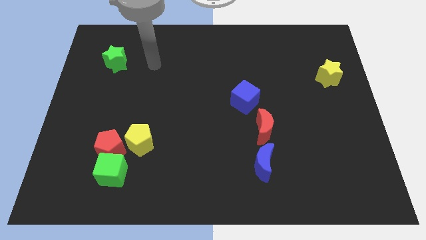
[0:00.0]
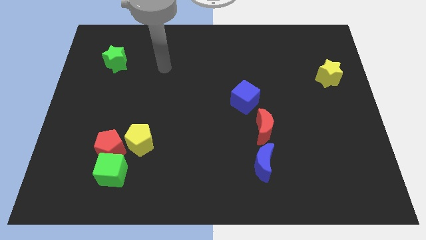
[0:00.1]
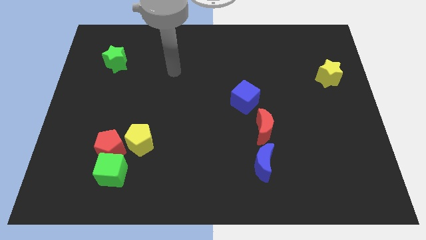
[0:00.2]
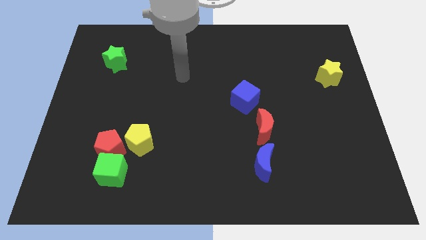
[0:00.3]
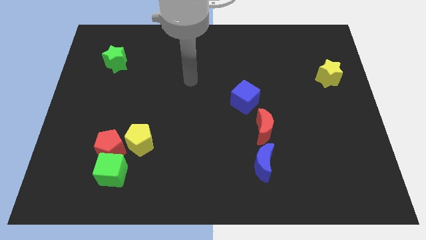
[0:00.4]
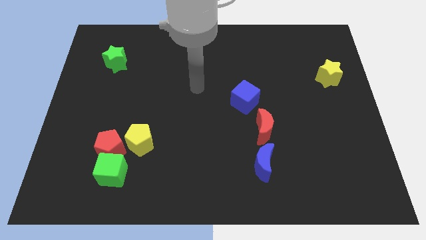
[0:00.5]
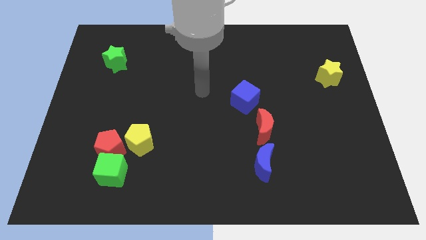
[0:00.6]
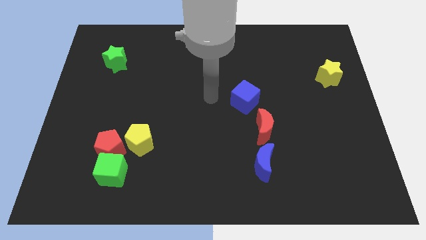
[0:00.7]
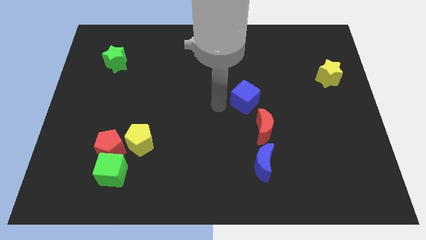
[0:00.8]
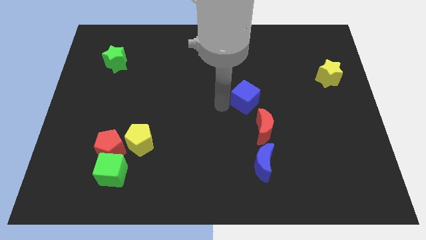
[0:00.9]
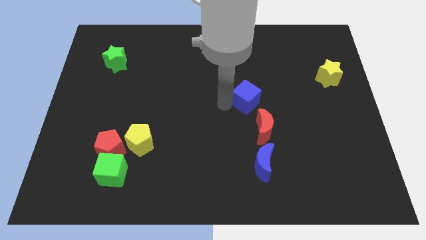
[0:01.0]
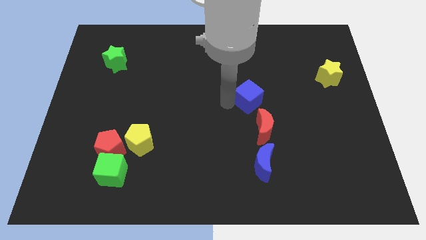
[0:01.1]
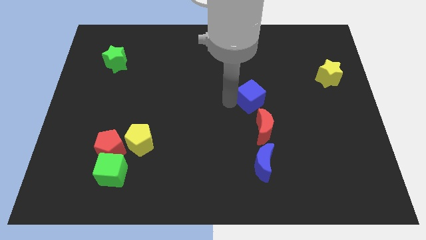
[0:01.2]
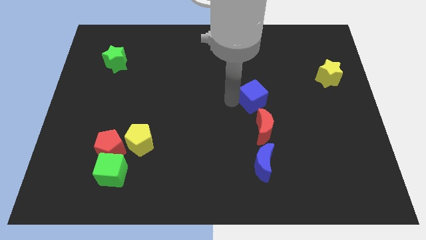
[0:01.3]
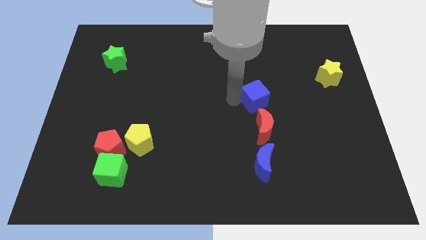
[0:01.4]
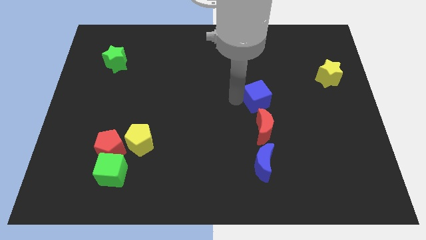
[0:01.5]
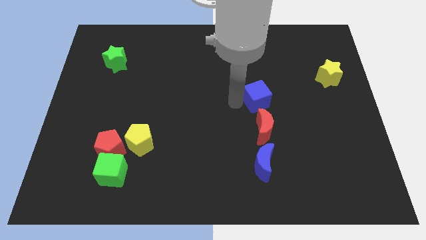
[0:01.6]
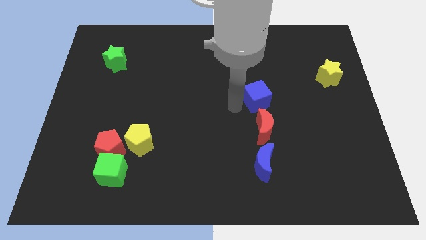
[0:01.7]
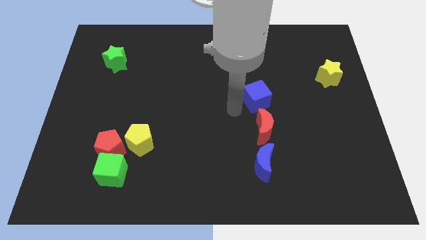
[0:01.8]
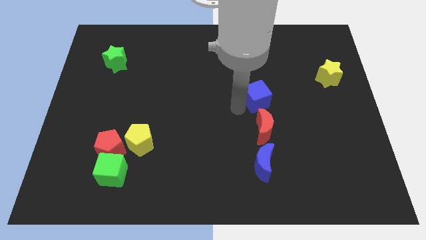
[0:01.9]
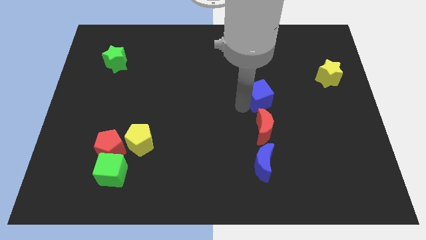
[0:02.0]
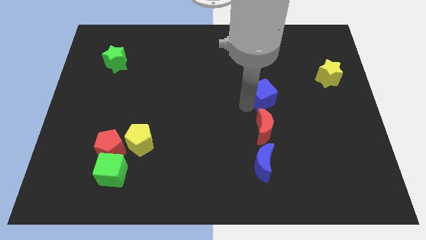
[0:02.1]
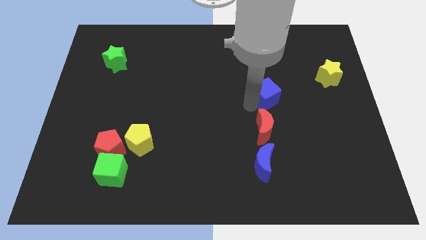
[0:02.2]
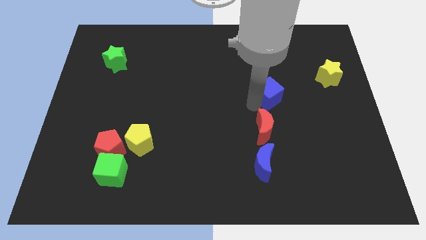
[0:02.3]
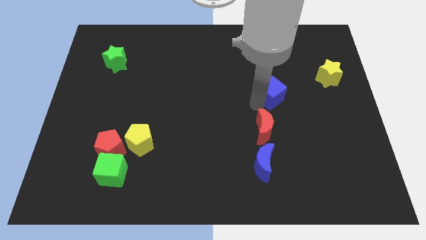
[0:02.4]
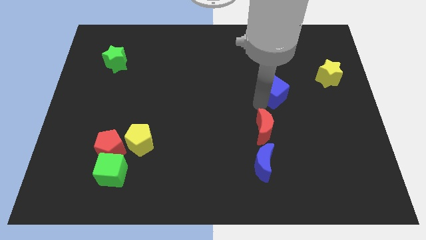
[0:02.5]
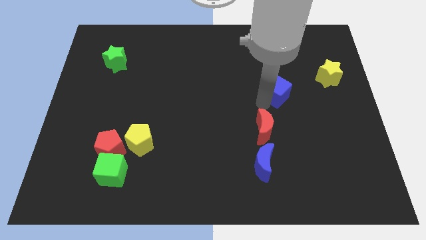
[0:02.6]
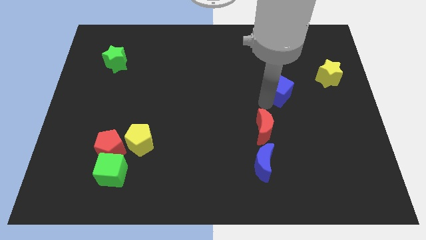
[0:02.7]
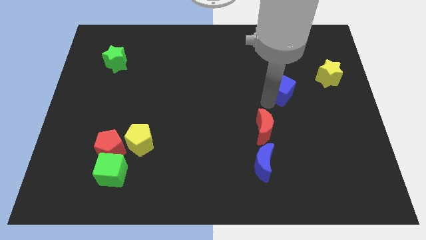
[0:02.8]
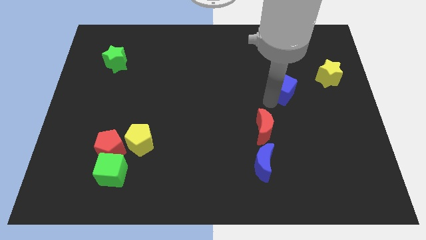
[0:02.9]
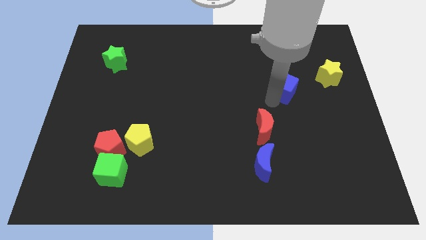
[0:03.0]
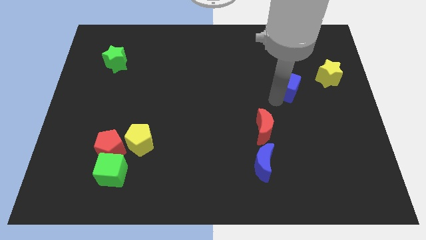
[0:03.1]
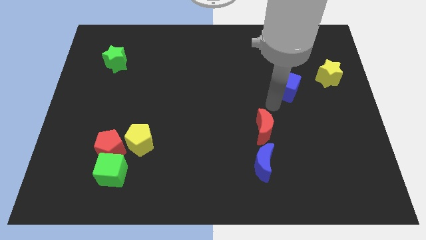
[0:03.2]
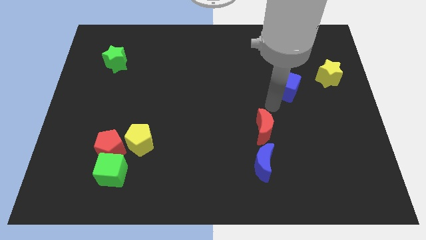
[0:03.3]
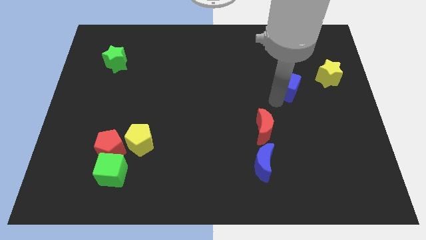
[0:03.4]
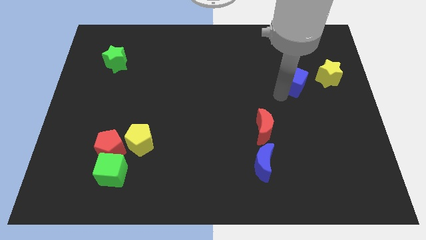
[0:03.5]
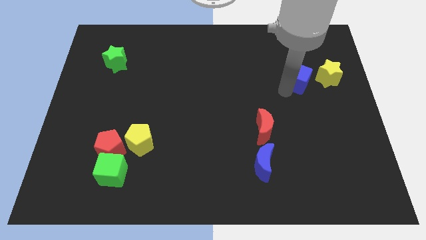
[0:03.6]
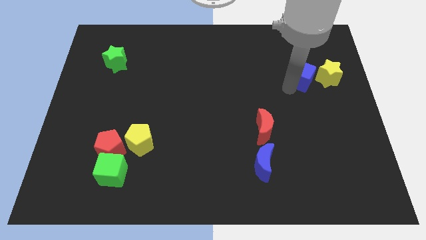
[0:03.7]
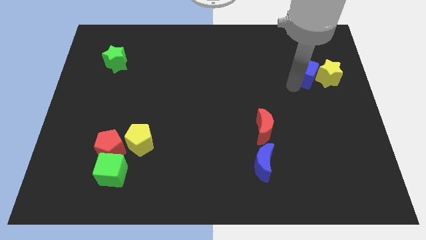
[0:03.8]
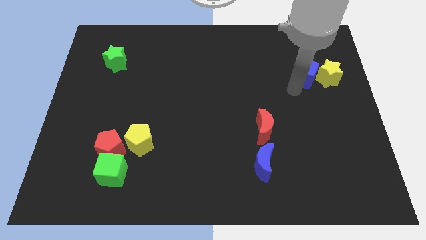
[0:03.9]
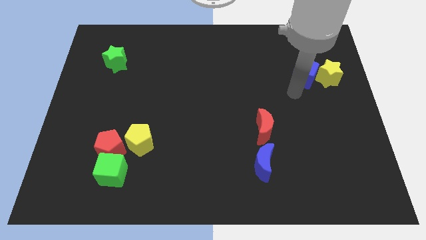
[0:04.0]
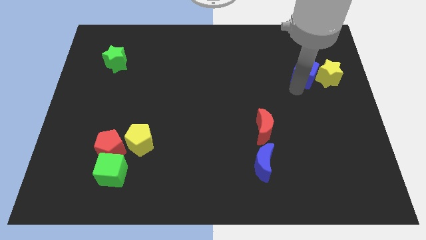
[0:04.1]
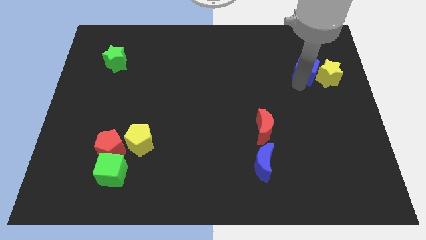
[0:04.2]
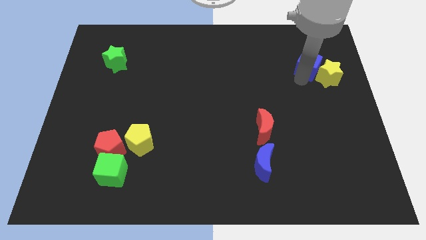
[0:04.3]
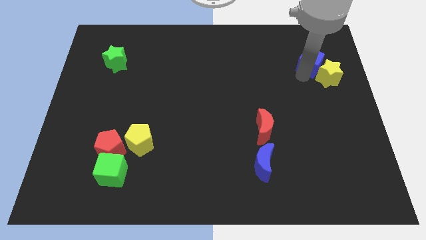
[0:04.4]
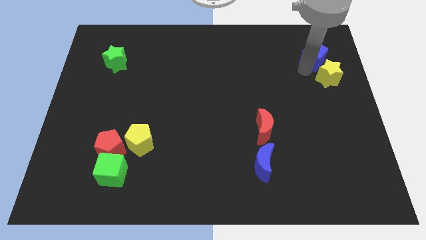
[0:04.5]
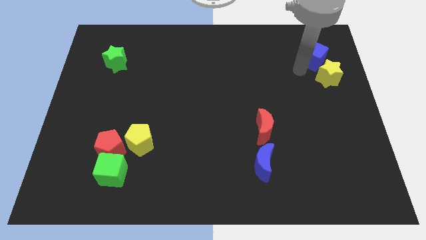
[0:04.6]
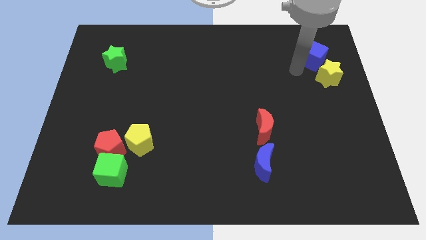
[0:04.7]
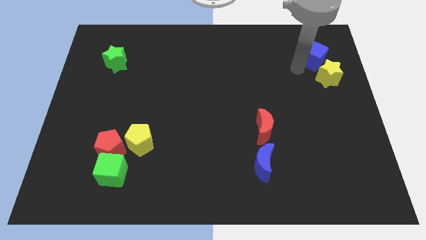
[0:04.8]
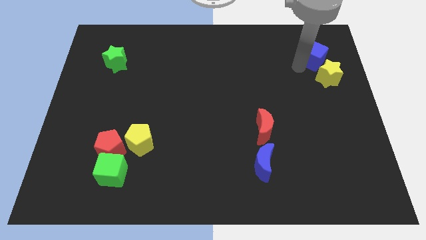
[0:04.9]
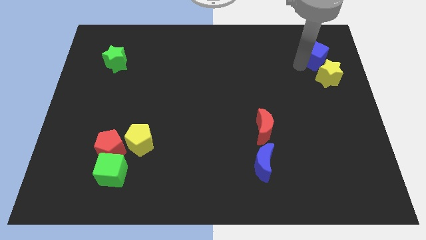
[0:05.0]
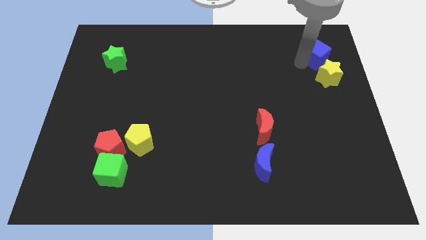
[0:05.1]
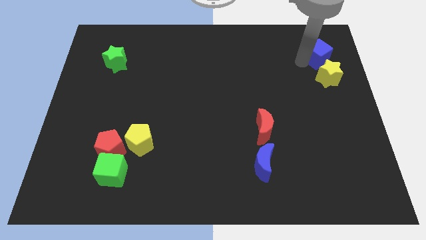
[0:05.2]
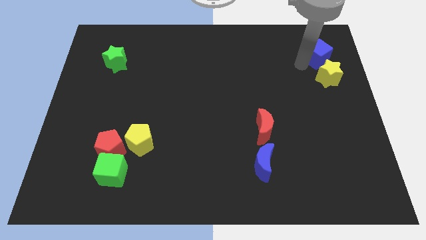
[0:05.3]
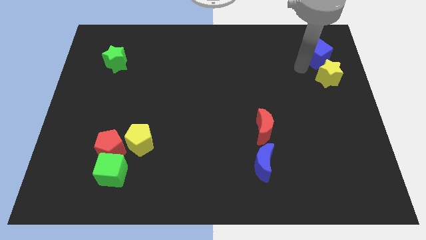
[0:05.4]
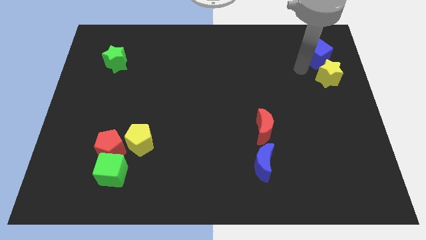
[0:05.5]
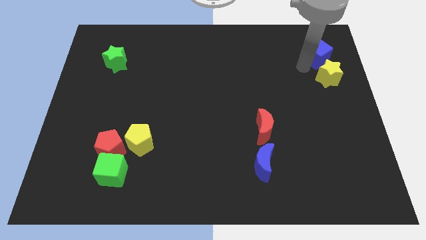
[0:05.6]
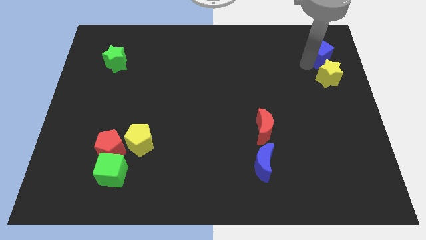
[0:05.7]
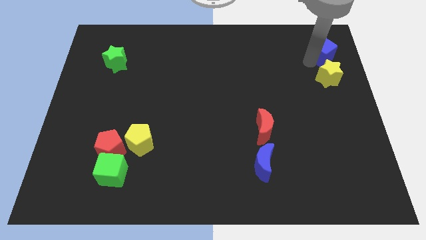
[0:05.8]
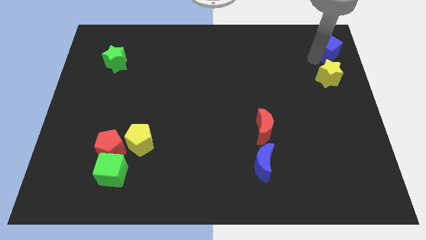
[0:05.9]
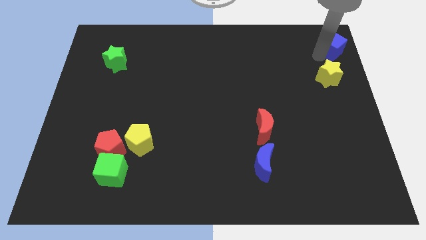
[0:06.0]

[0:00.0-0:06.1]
push the blue cube to the top right of the board

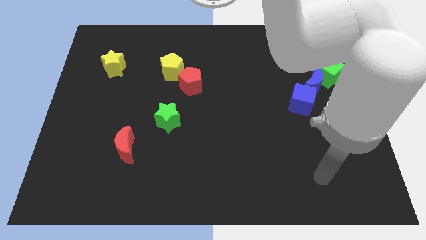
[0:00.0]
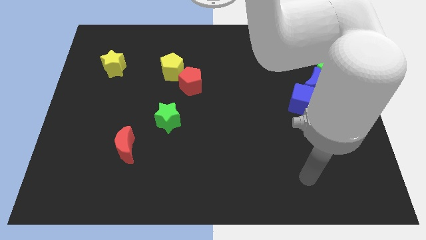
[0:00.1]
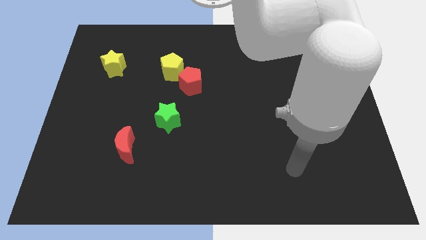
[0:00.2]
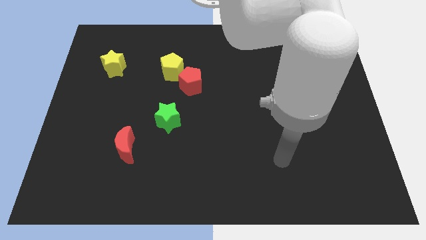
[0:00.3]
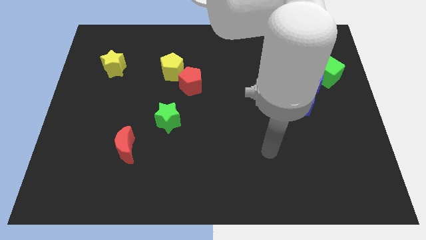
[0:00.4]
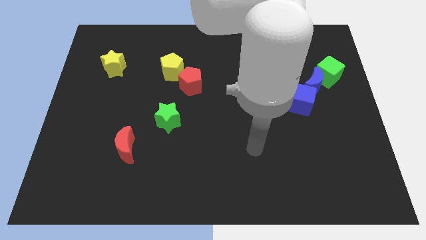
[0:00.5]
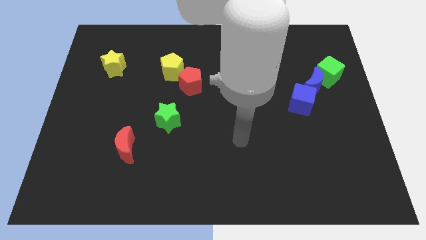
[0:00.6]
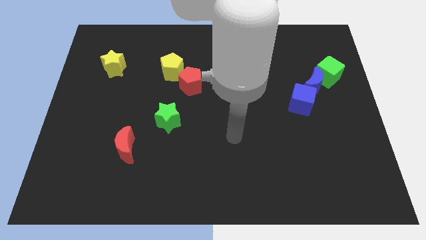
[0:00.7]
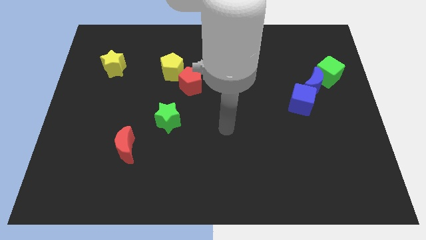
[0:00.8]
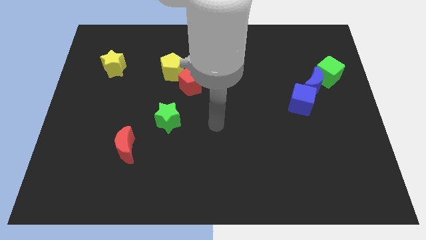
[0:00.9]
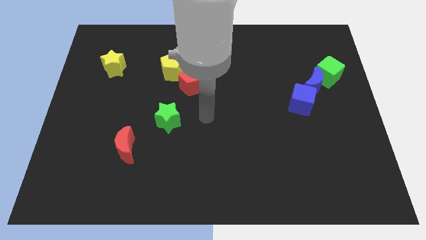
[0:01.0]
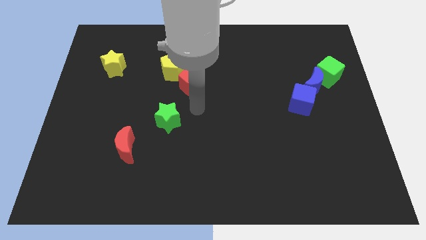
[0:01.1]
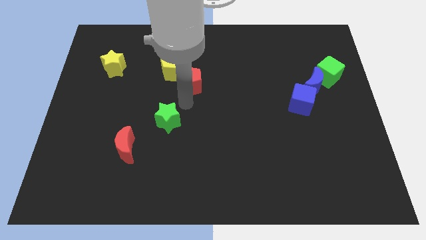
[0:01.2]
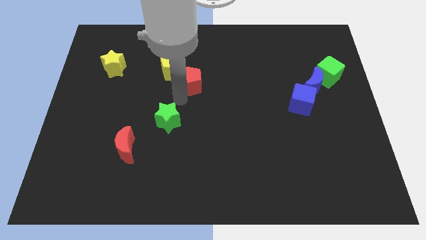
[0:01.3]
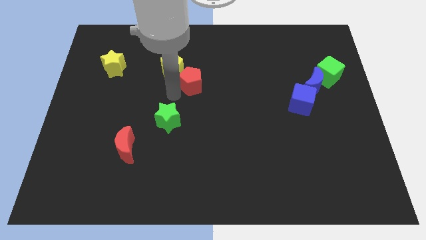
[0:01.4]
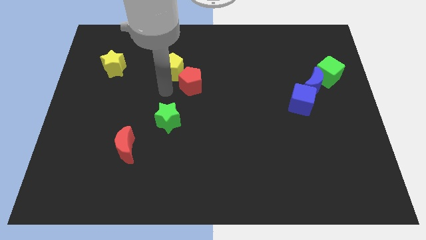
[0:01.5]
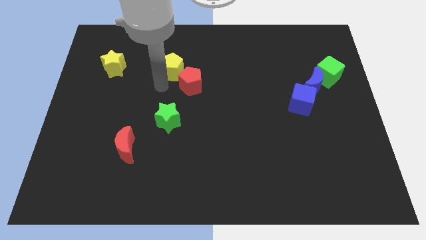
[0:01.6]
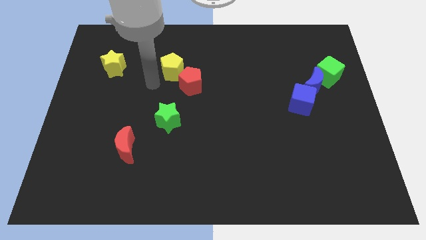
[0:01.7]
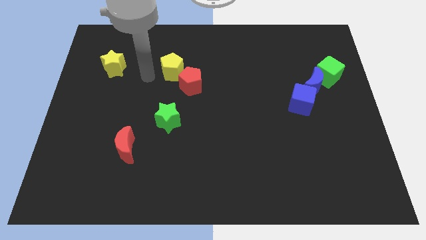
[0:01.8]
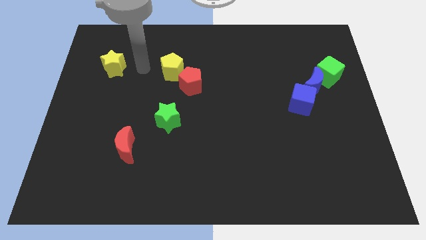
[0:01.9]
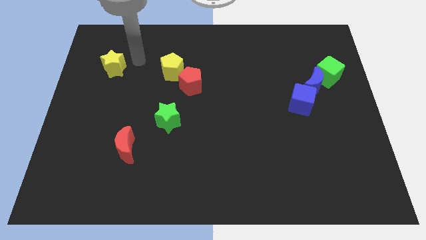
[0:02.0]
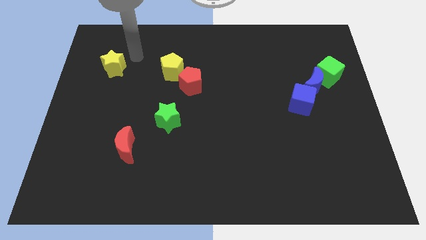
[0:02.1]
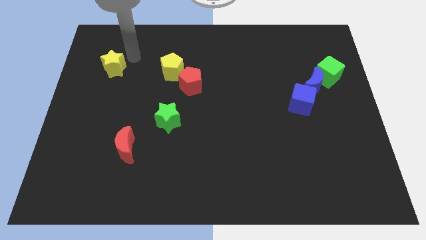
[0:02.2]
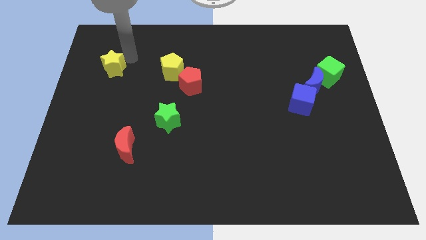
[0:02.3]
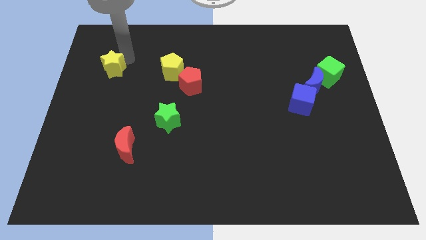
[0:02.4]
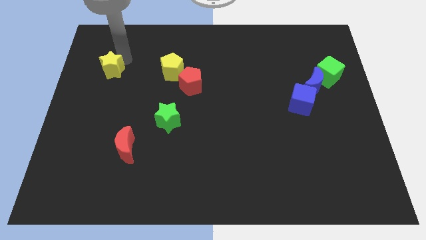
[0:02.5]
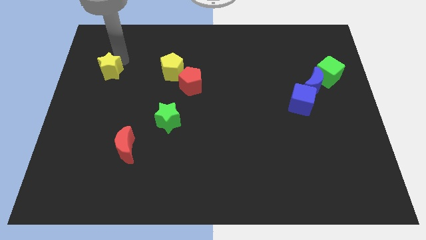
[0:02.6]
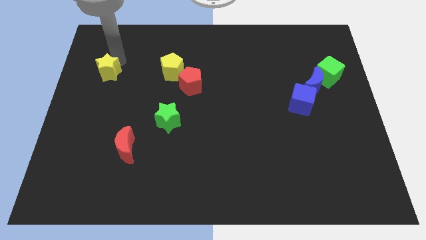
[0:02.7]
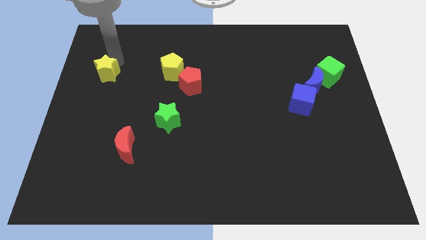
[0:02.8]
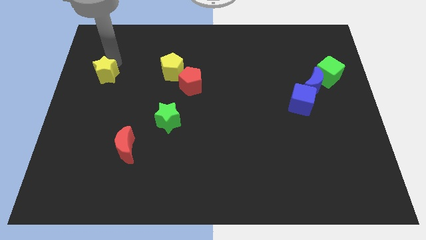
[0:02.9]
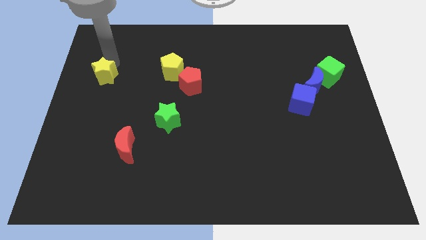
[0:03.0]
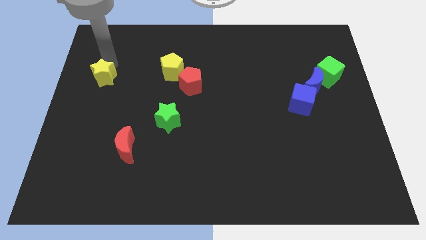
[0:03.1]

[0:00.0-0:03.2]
push the yellow star to the left side
